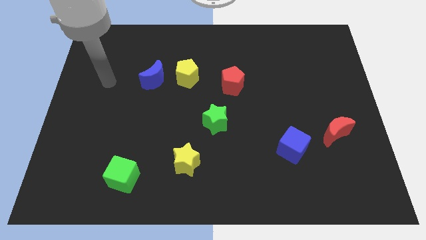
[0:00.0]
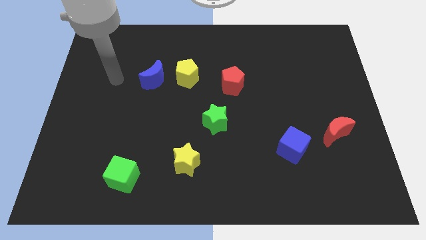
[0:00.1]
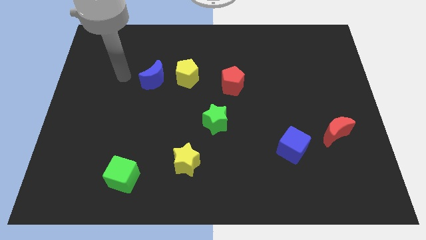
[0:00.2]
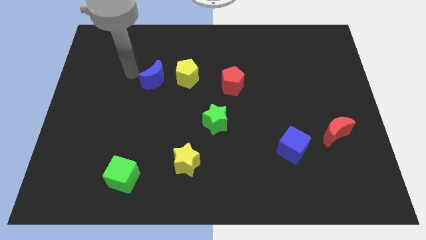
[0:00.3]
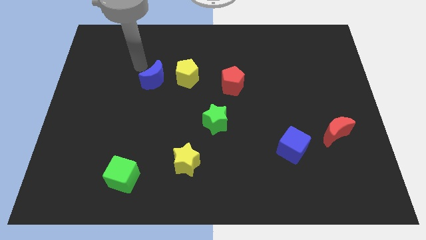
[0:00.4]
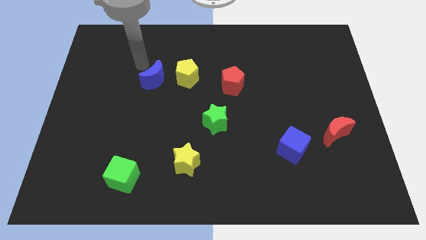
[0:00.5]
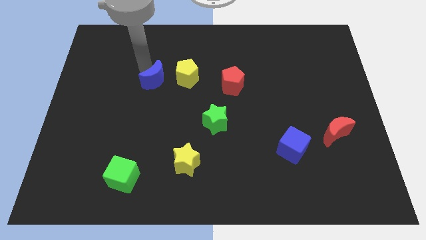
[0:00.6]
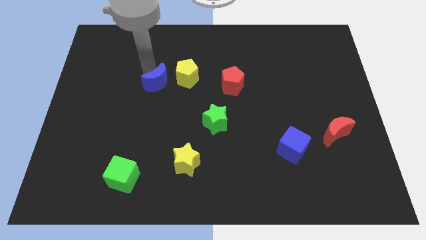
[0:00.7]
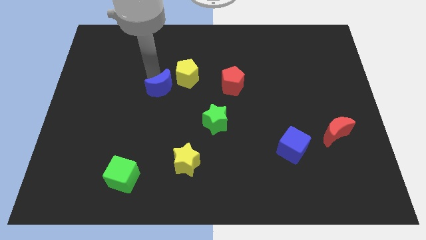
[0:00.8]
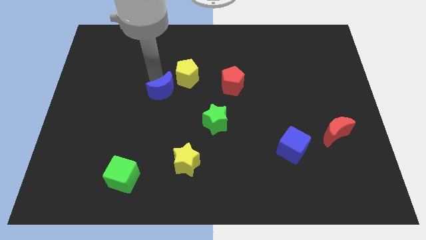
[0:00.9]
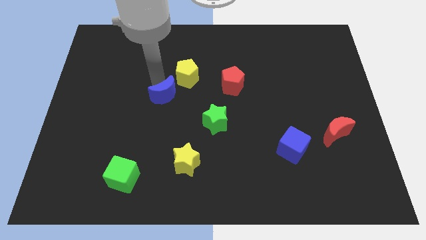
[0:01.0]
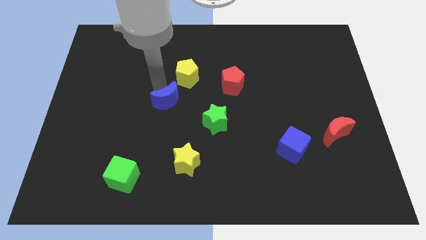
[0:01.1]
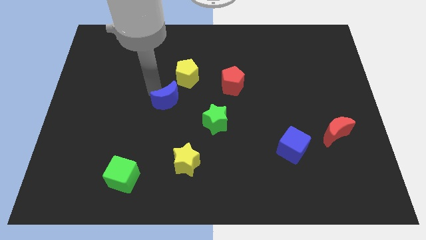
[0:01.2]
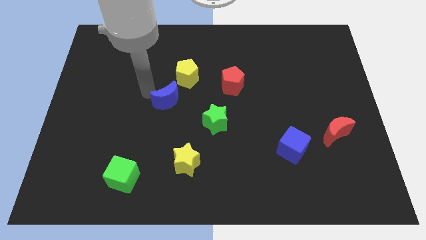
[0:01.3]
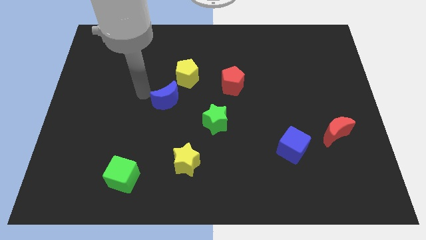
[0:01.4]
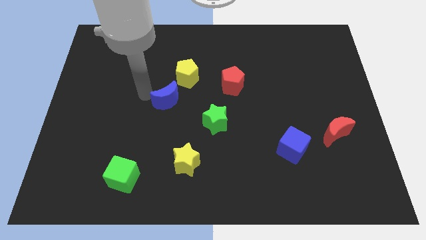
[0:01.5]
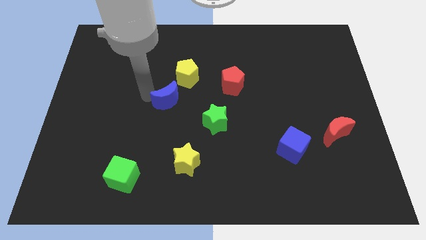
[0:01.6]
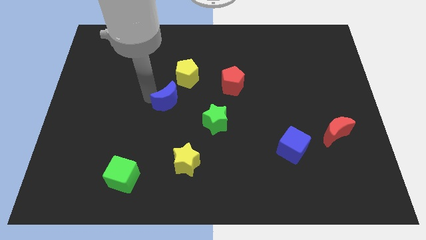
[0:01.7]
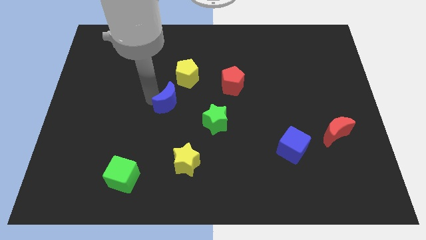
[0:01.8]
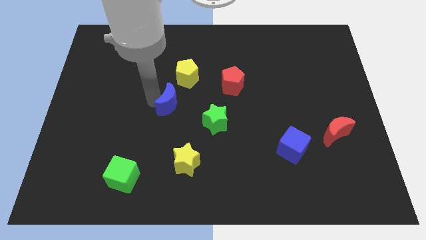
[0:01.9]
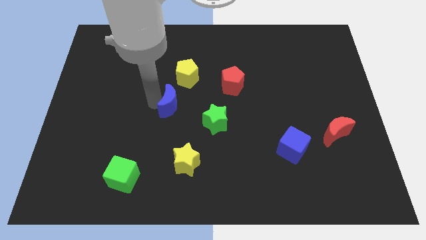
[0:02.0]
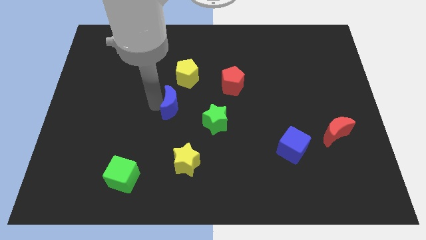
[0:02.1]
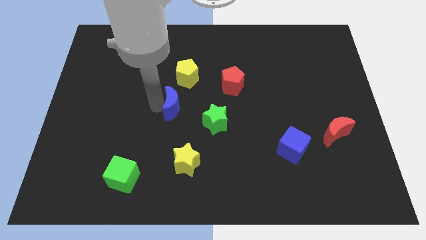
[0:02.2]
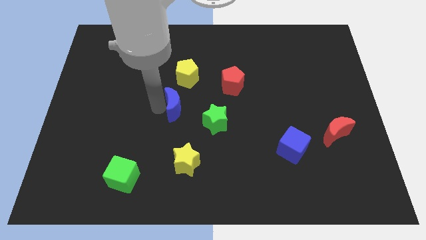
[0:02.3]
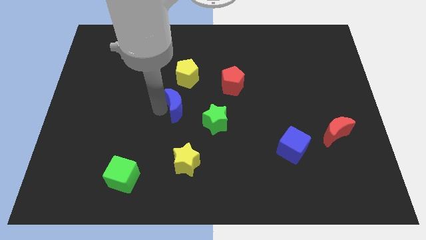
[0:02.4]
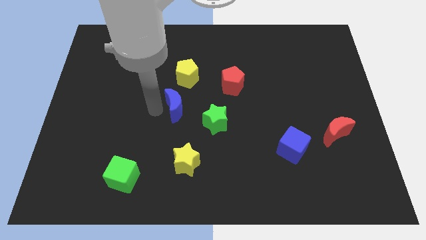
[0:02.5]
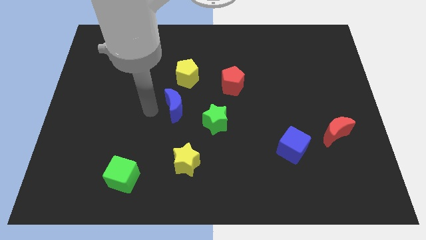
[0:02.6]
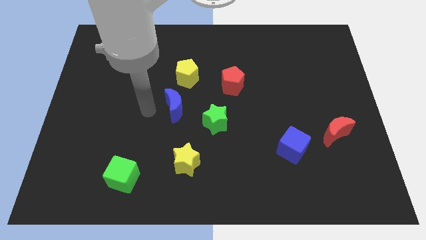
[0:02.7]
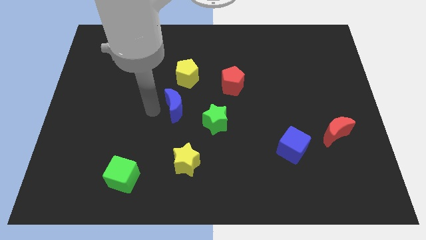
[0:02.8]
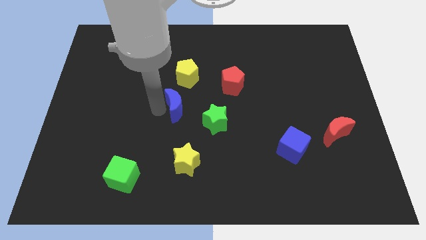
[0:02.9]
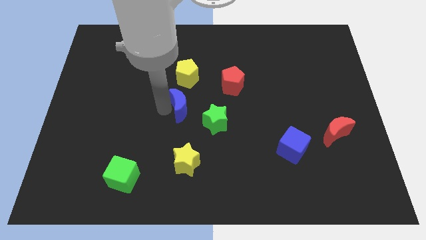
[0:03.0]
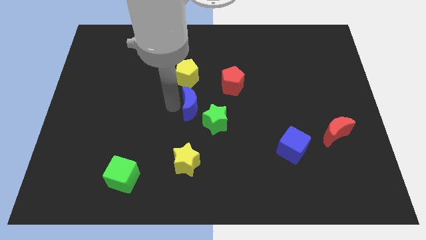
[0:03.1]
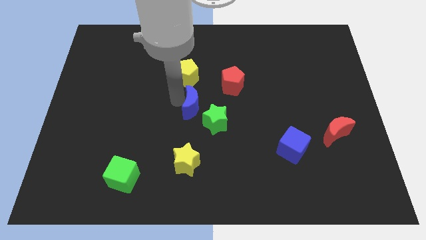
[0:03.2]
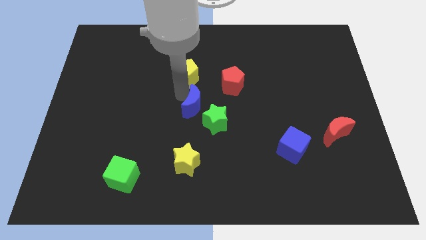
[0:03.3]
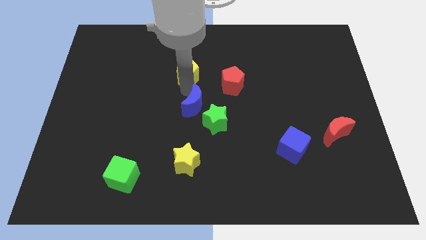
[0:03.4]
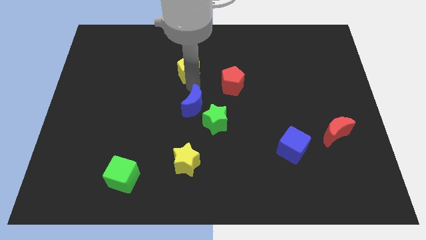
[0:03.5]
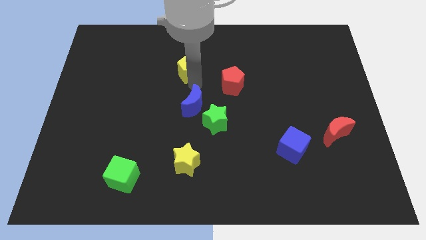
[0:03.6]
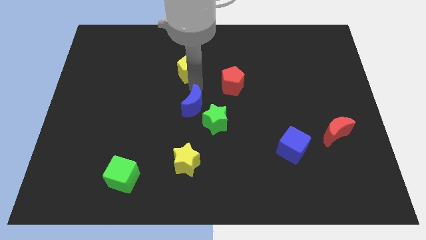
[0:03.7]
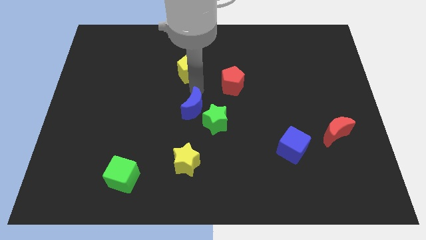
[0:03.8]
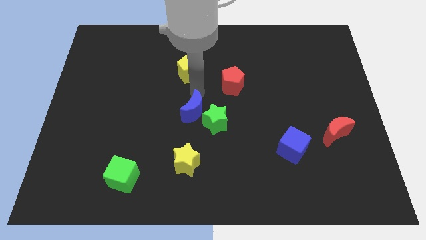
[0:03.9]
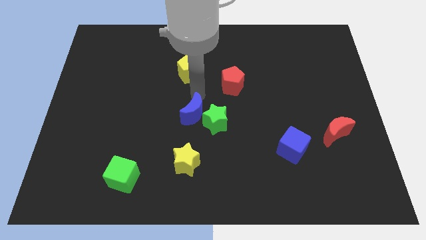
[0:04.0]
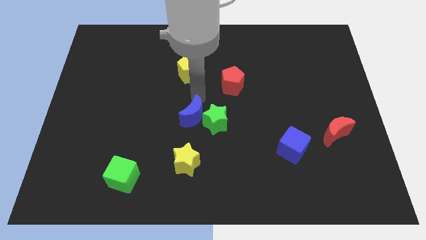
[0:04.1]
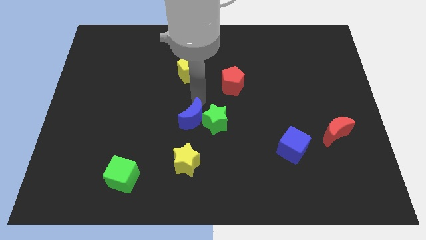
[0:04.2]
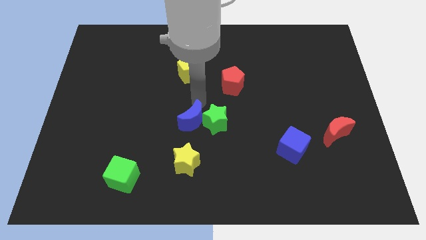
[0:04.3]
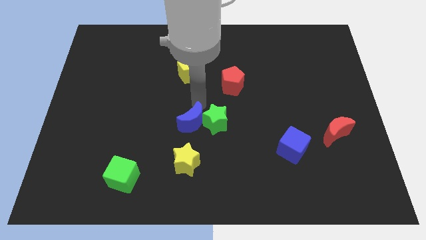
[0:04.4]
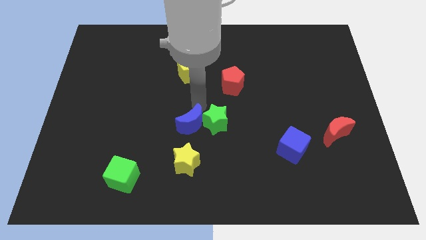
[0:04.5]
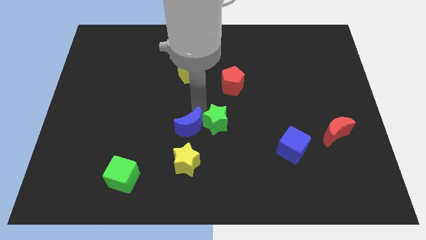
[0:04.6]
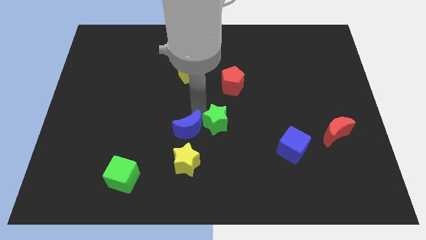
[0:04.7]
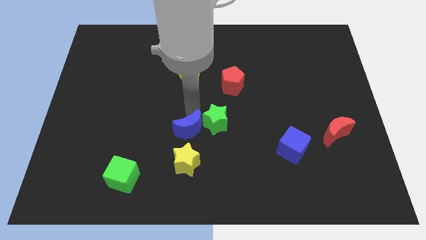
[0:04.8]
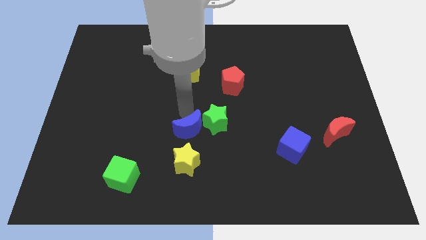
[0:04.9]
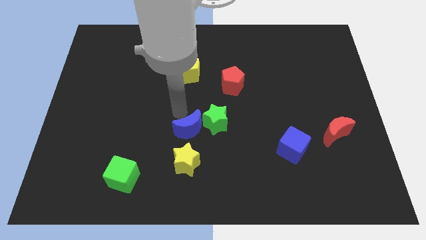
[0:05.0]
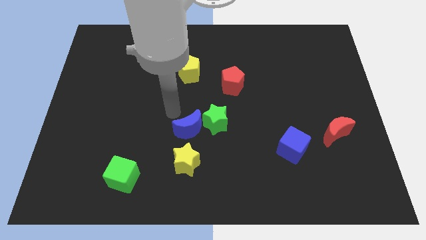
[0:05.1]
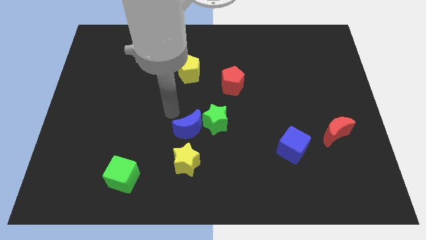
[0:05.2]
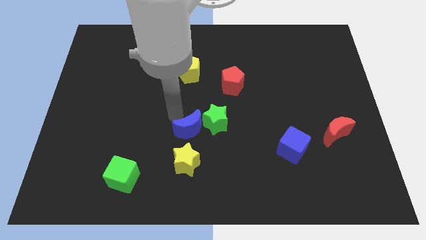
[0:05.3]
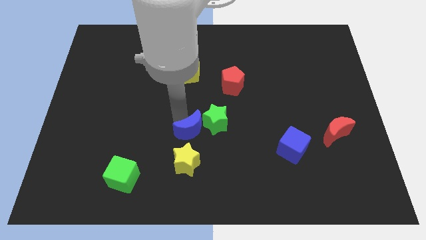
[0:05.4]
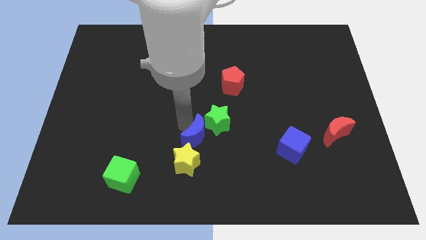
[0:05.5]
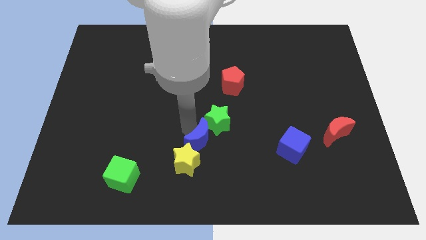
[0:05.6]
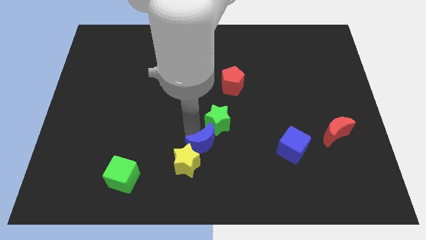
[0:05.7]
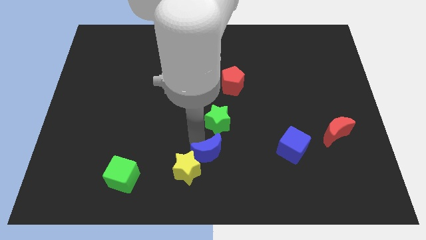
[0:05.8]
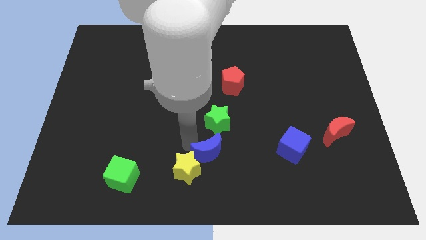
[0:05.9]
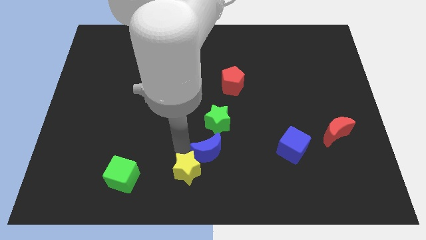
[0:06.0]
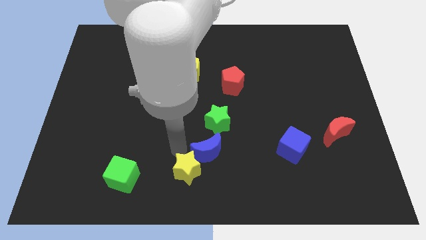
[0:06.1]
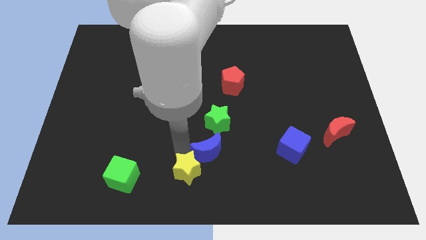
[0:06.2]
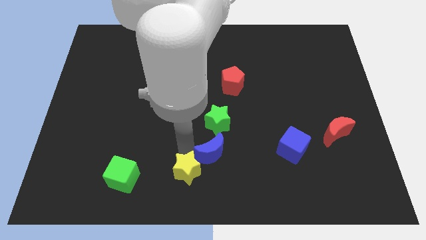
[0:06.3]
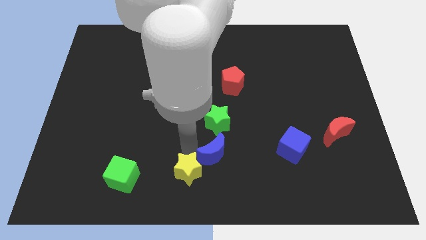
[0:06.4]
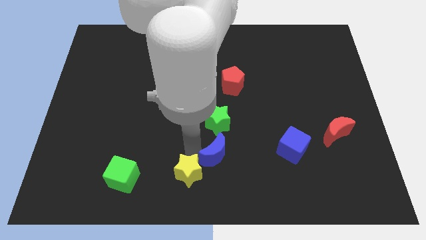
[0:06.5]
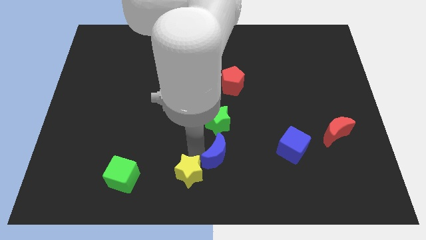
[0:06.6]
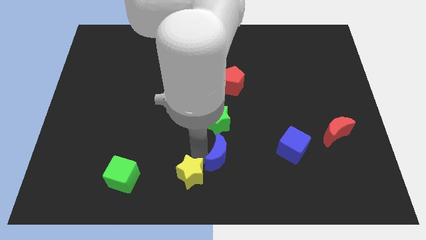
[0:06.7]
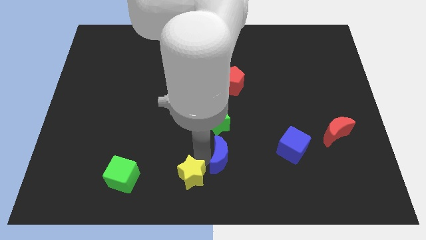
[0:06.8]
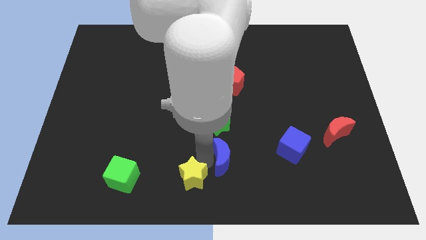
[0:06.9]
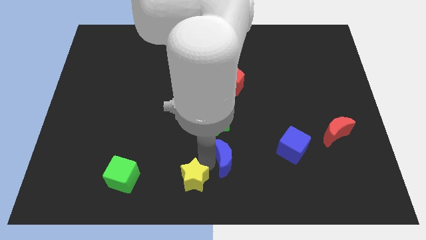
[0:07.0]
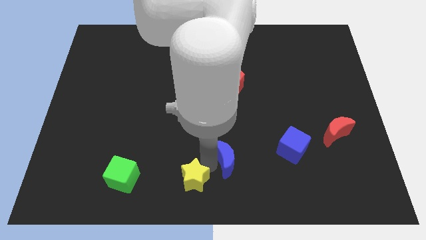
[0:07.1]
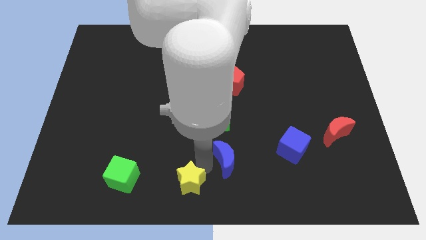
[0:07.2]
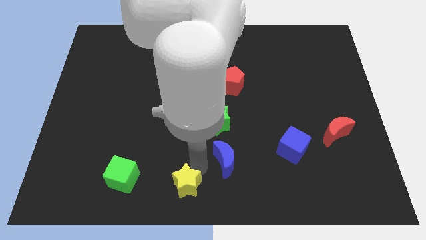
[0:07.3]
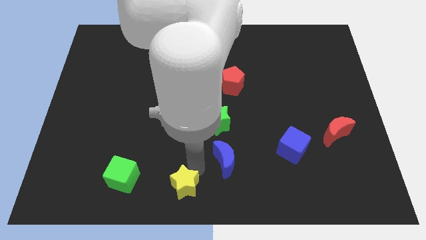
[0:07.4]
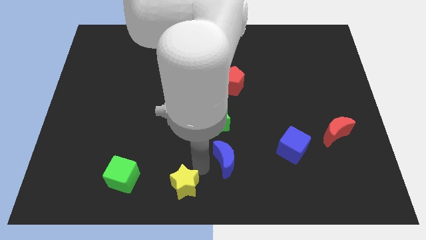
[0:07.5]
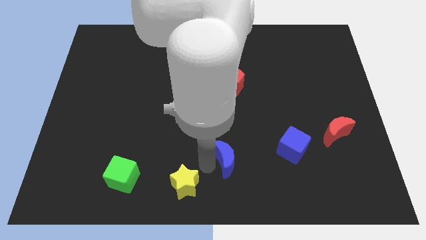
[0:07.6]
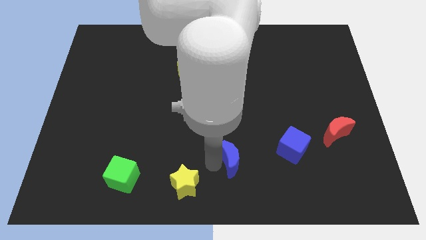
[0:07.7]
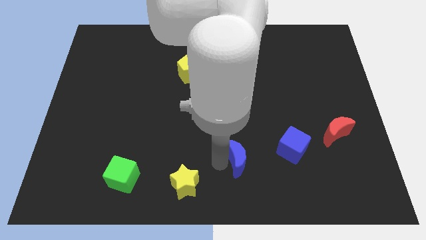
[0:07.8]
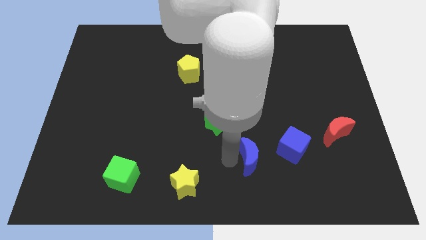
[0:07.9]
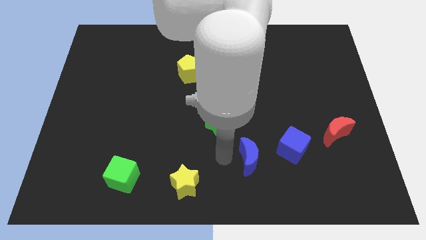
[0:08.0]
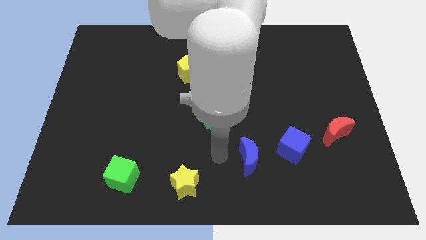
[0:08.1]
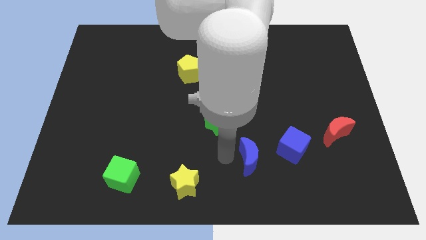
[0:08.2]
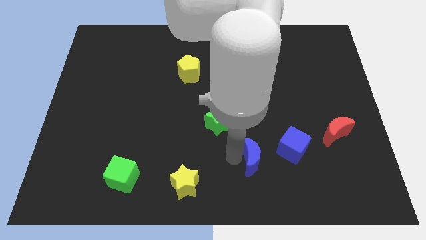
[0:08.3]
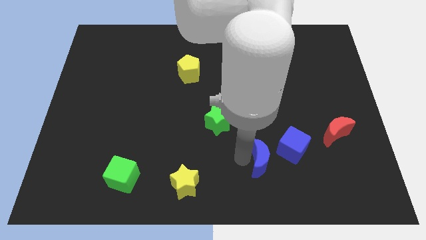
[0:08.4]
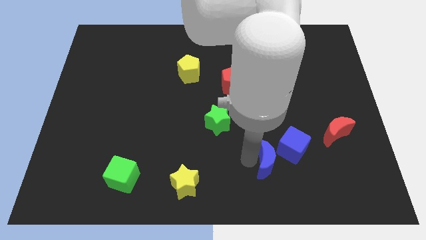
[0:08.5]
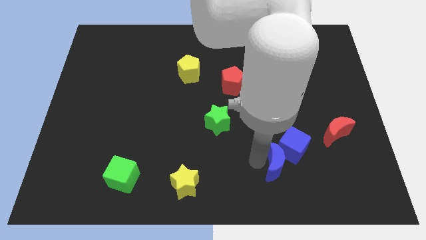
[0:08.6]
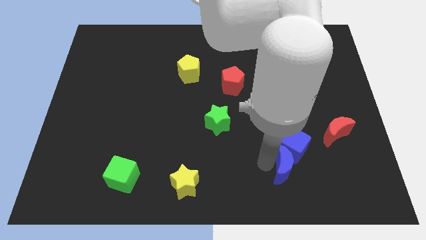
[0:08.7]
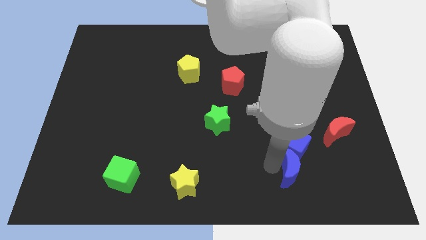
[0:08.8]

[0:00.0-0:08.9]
push the blue moon diagonally down and to the right of the blue cube
